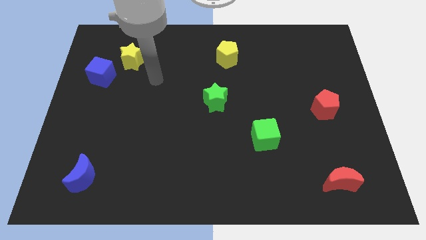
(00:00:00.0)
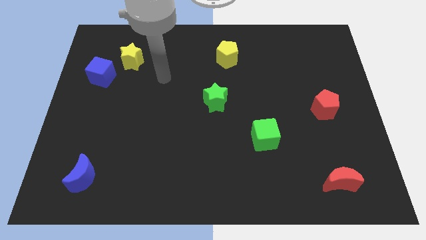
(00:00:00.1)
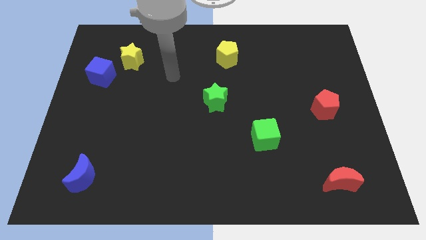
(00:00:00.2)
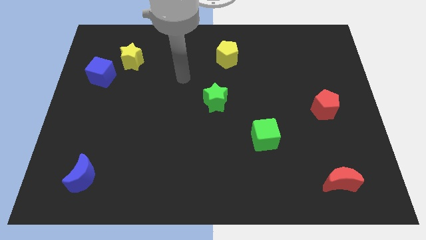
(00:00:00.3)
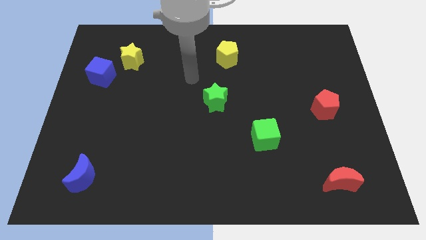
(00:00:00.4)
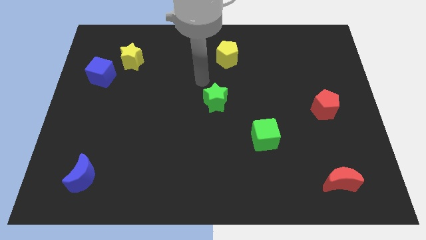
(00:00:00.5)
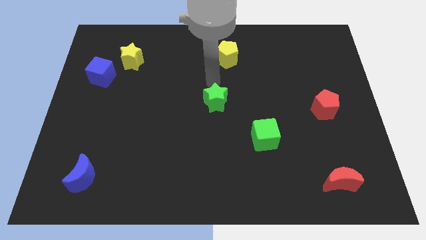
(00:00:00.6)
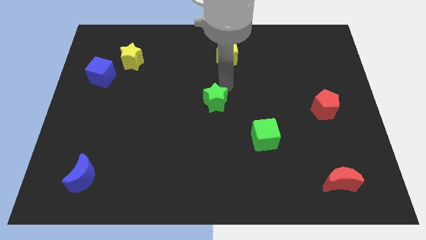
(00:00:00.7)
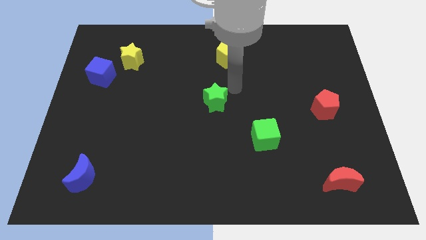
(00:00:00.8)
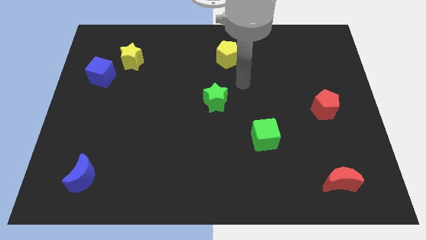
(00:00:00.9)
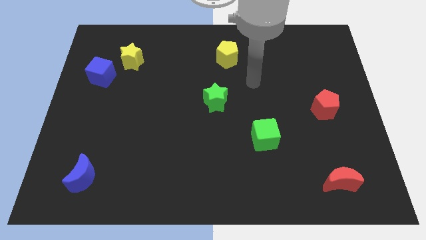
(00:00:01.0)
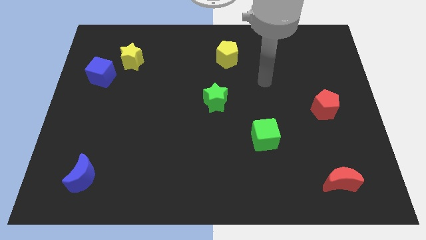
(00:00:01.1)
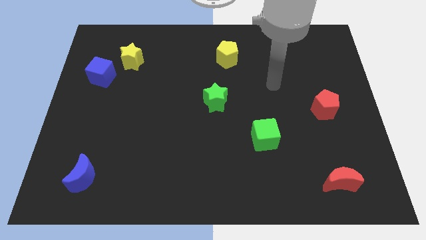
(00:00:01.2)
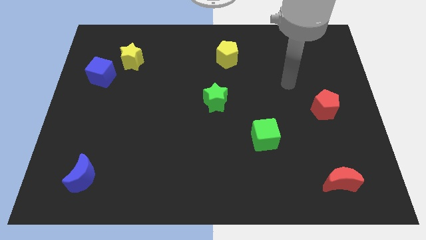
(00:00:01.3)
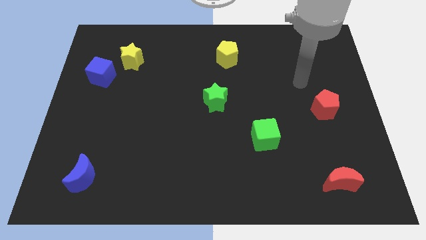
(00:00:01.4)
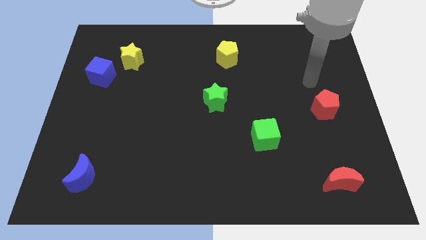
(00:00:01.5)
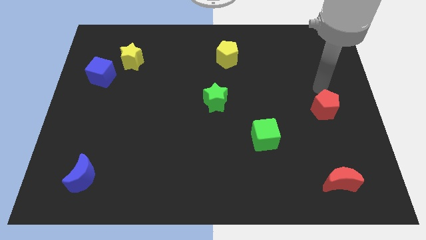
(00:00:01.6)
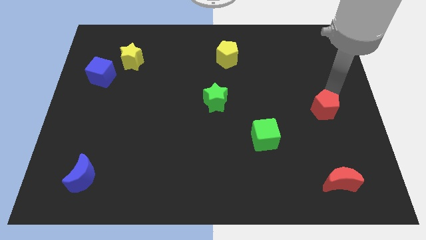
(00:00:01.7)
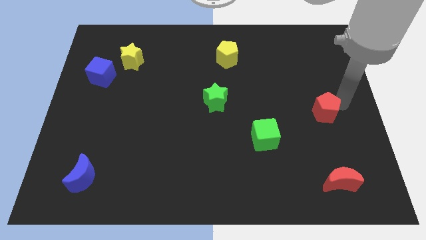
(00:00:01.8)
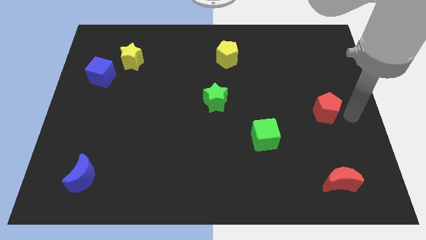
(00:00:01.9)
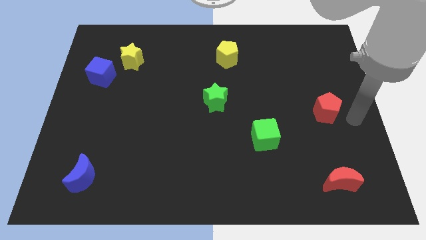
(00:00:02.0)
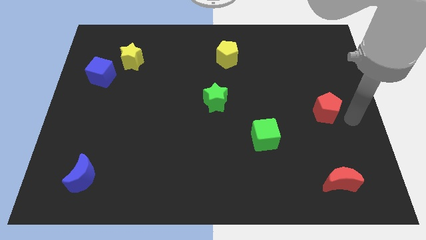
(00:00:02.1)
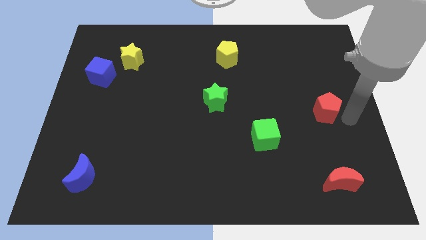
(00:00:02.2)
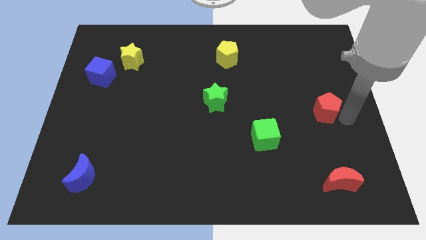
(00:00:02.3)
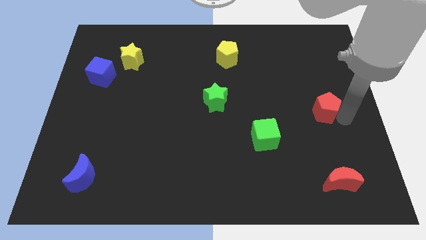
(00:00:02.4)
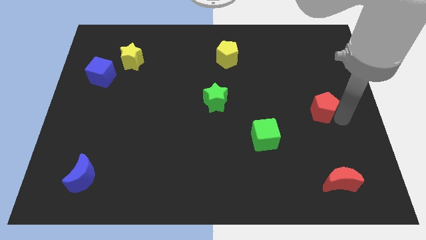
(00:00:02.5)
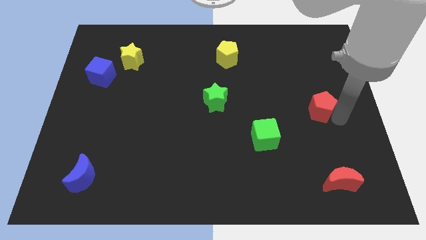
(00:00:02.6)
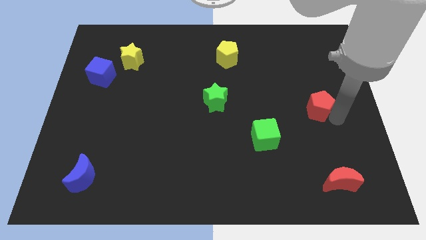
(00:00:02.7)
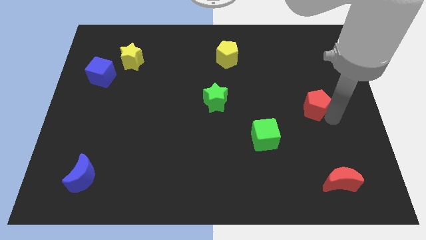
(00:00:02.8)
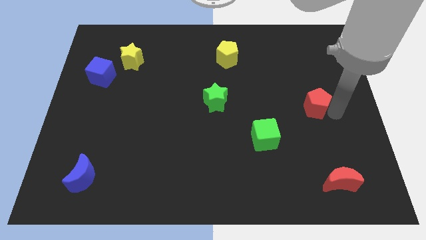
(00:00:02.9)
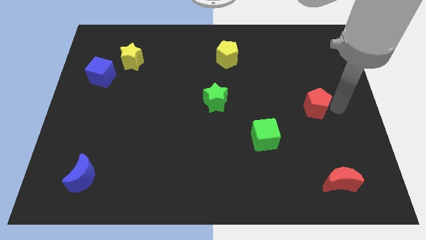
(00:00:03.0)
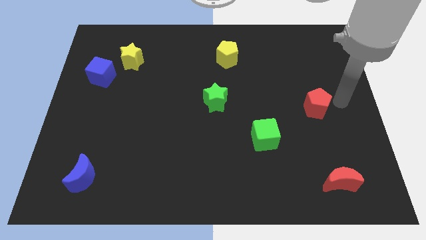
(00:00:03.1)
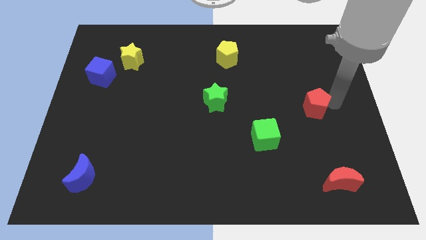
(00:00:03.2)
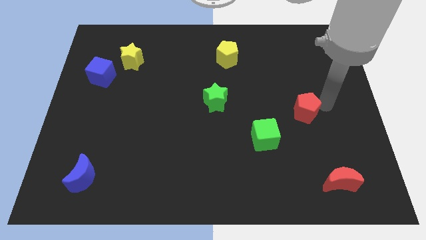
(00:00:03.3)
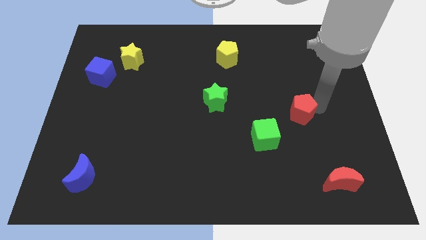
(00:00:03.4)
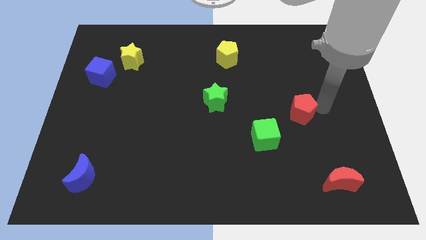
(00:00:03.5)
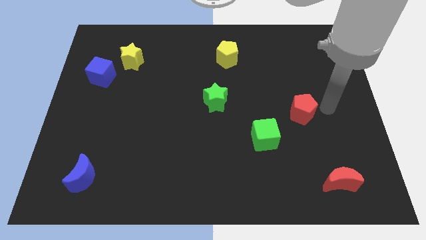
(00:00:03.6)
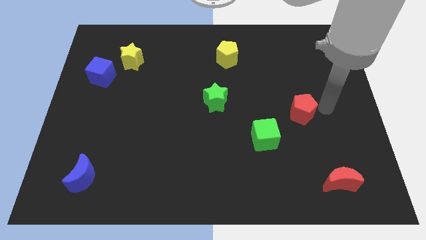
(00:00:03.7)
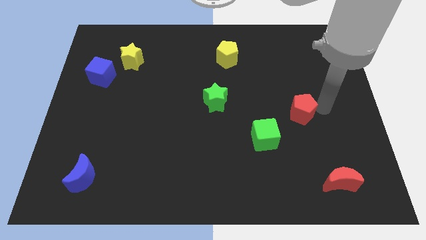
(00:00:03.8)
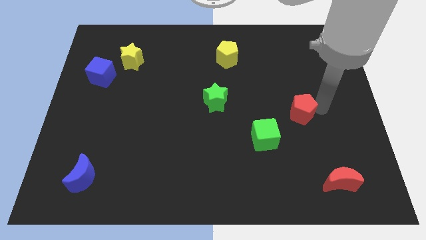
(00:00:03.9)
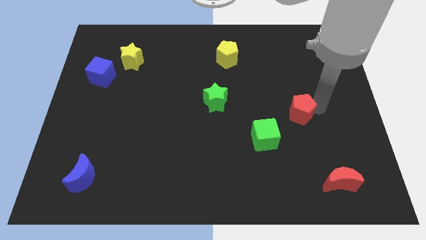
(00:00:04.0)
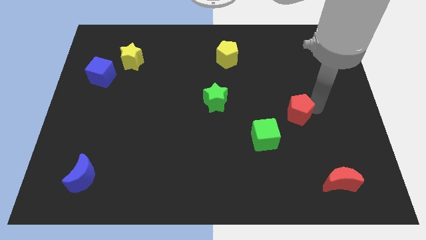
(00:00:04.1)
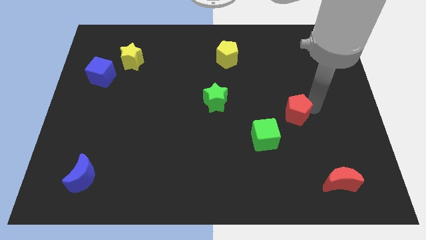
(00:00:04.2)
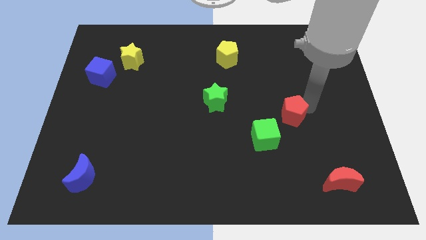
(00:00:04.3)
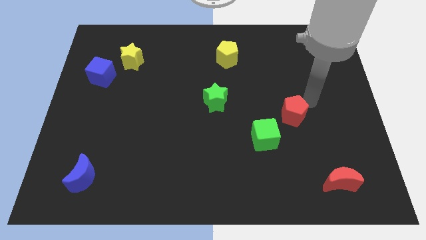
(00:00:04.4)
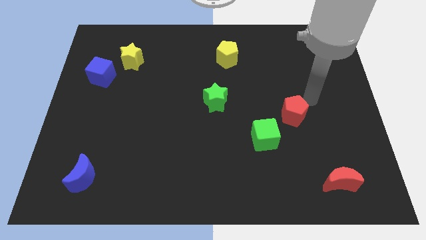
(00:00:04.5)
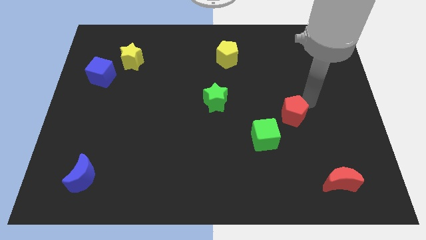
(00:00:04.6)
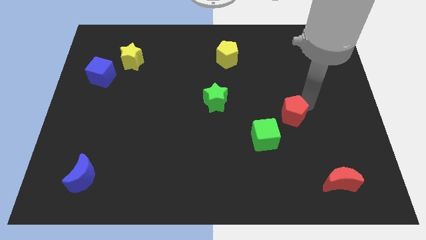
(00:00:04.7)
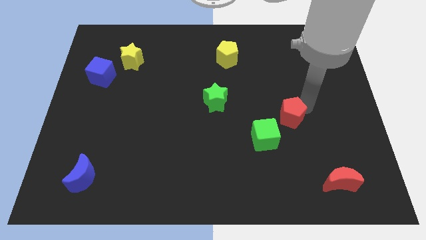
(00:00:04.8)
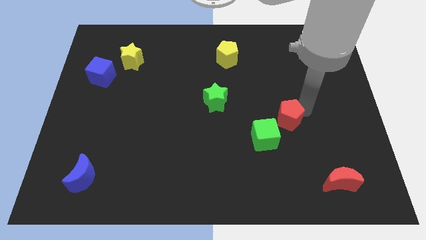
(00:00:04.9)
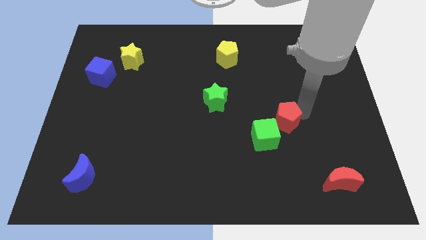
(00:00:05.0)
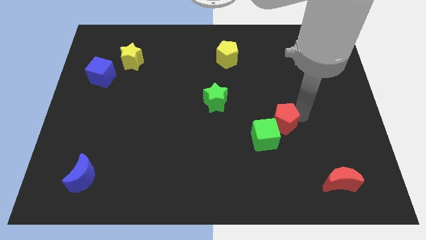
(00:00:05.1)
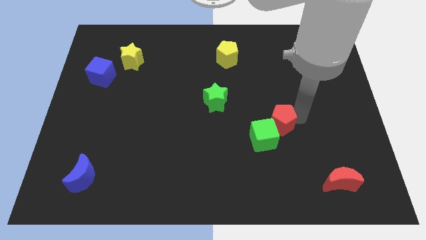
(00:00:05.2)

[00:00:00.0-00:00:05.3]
push the red pentagon to the green cube

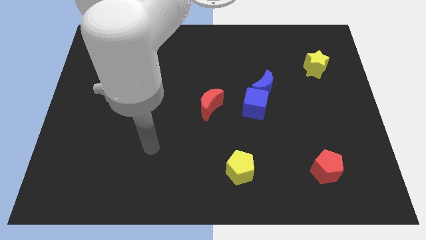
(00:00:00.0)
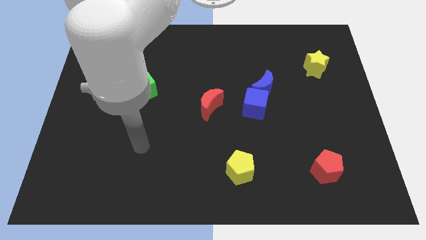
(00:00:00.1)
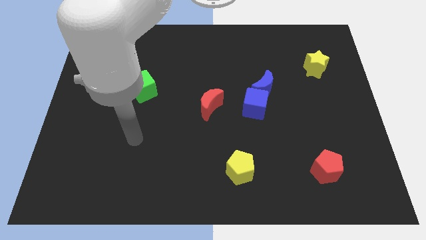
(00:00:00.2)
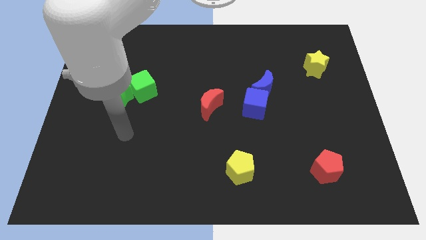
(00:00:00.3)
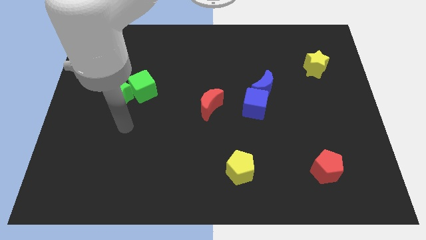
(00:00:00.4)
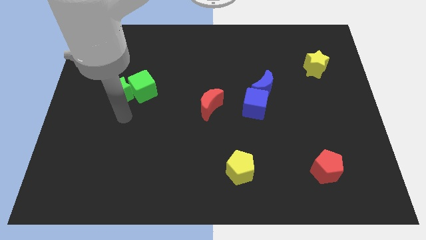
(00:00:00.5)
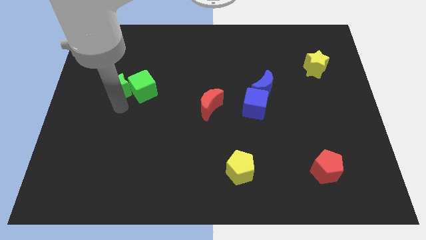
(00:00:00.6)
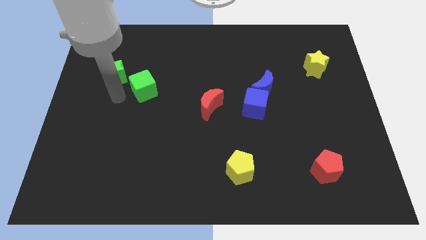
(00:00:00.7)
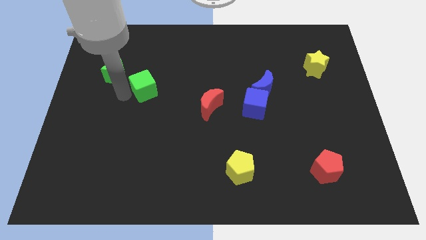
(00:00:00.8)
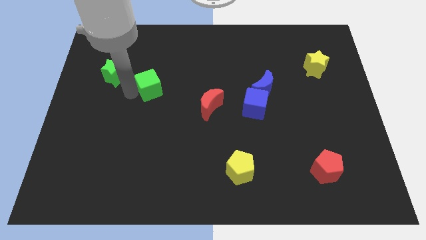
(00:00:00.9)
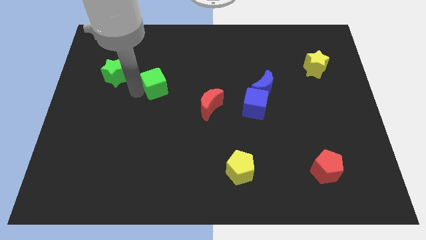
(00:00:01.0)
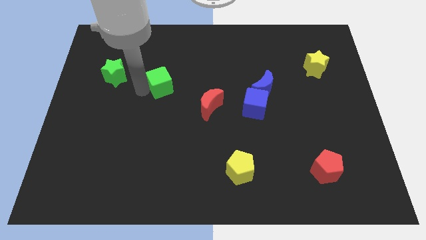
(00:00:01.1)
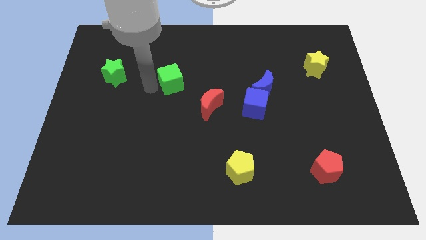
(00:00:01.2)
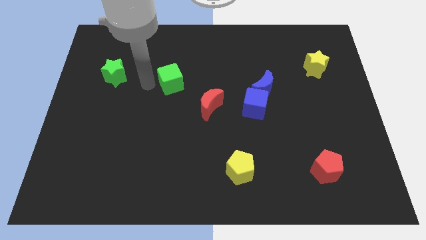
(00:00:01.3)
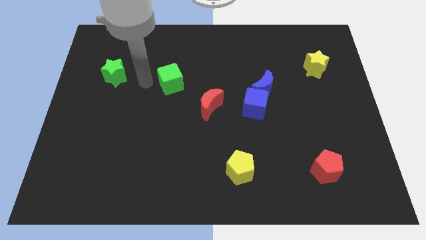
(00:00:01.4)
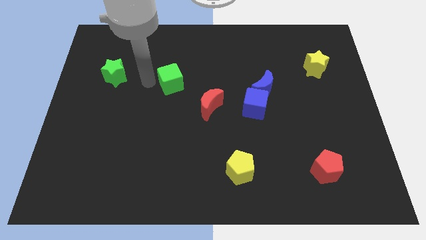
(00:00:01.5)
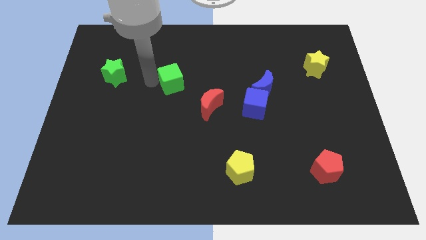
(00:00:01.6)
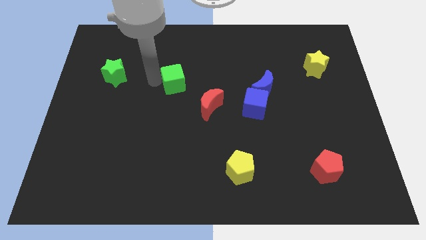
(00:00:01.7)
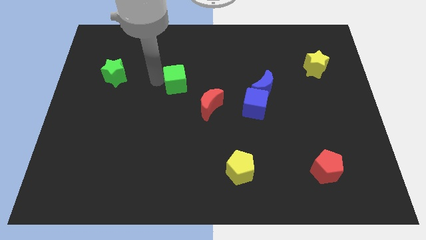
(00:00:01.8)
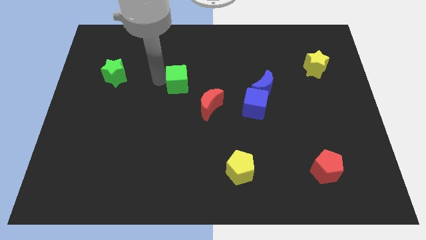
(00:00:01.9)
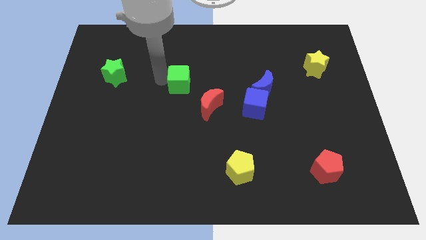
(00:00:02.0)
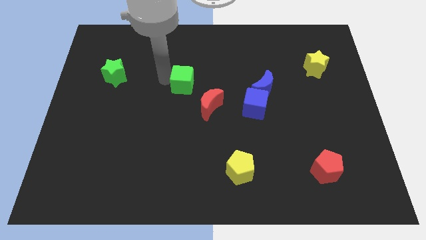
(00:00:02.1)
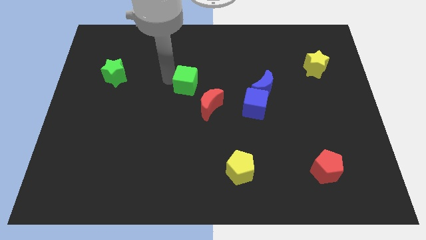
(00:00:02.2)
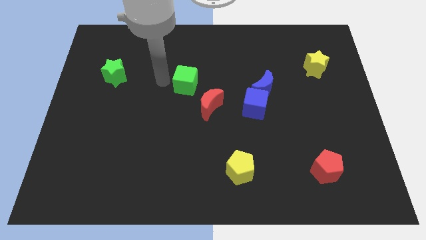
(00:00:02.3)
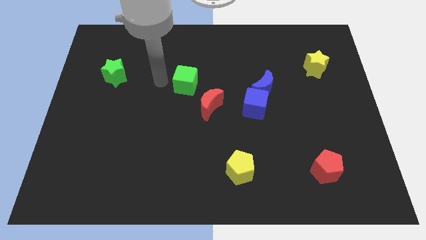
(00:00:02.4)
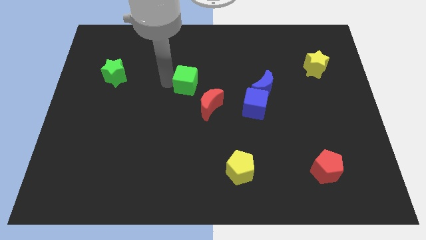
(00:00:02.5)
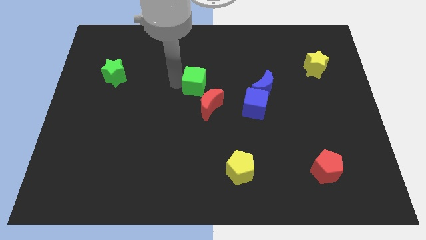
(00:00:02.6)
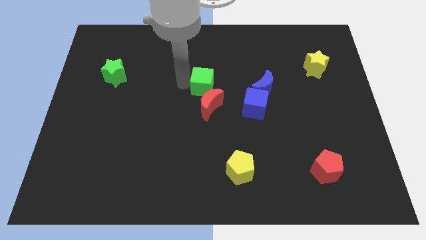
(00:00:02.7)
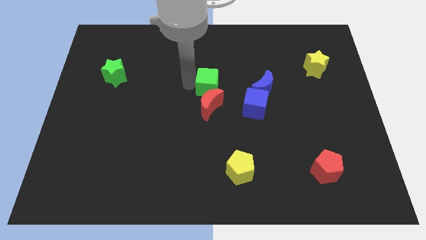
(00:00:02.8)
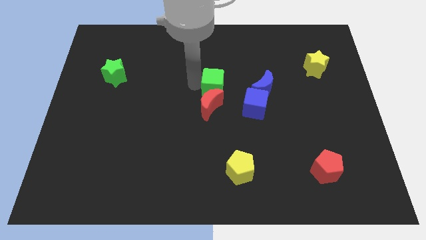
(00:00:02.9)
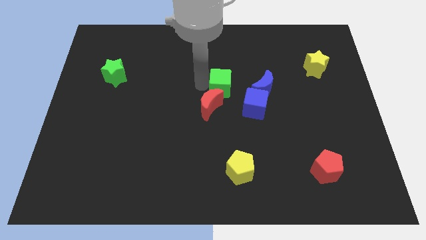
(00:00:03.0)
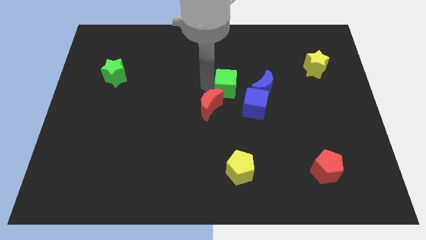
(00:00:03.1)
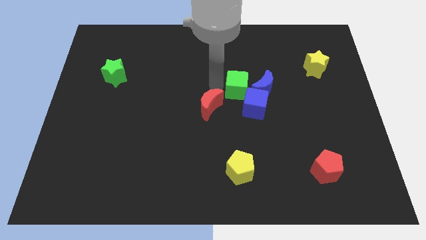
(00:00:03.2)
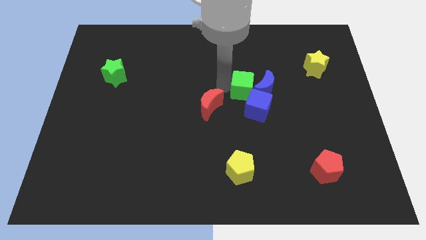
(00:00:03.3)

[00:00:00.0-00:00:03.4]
push the green cube close to the blue moon
